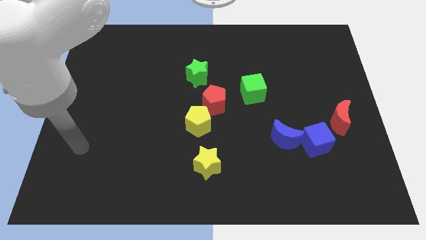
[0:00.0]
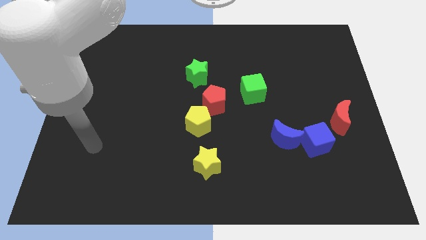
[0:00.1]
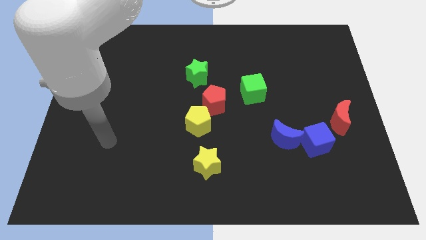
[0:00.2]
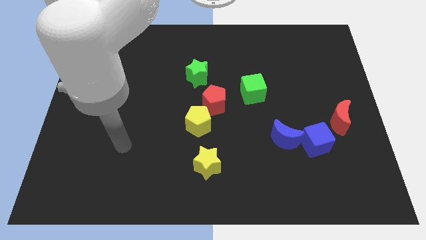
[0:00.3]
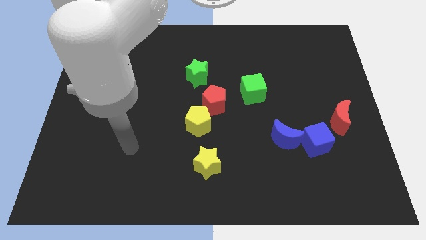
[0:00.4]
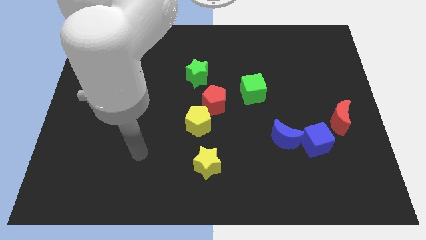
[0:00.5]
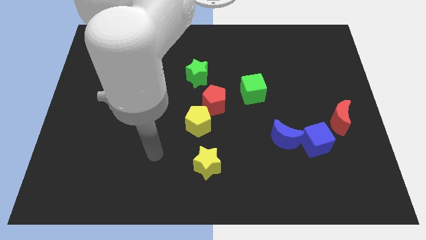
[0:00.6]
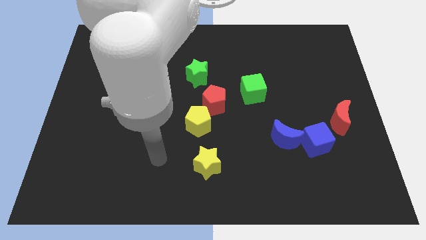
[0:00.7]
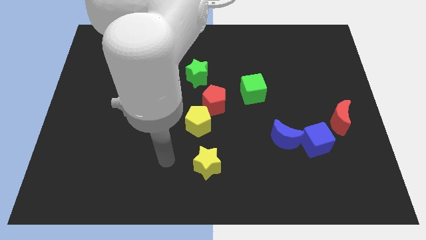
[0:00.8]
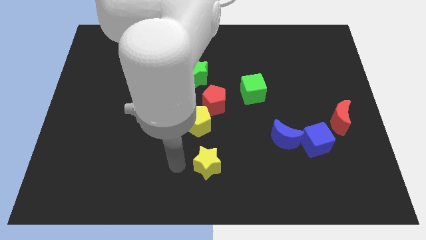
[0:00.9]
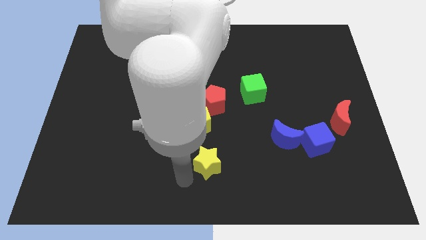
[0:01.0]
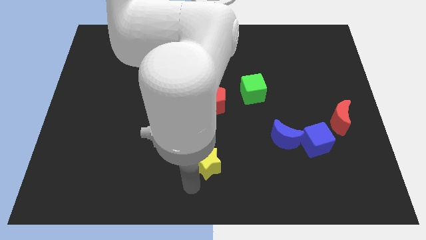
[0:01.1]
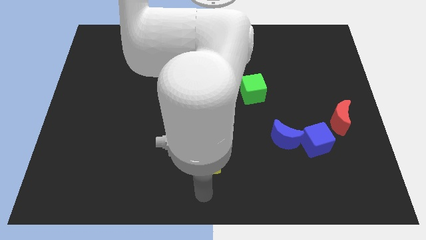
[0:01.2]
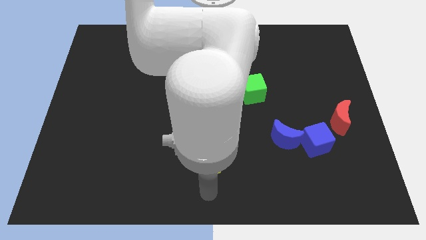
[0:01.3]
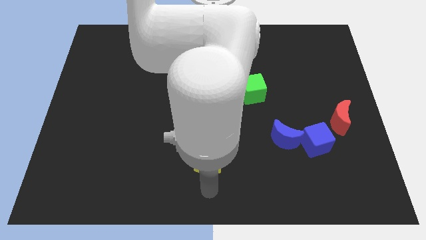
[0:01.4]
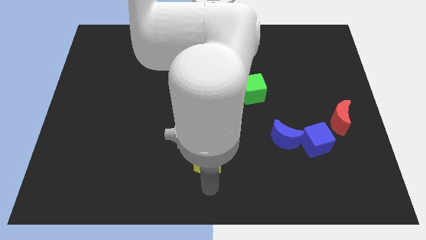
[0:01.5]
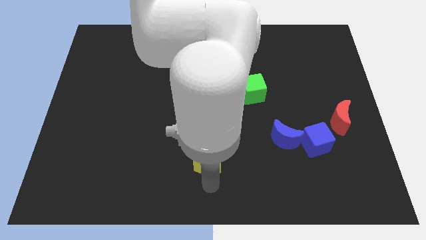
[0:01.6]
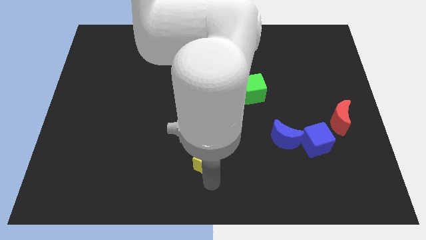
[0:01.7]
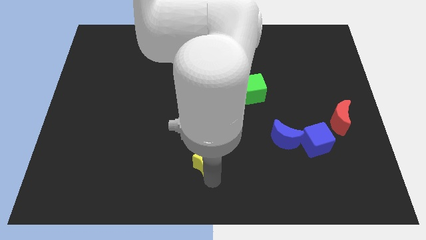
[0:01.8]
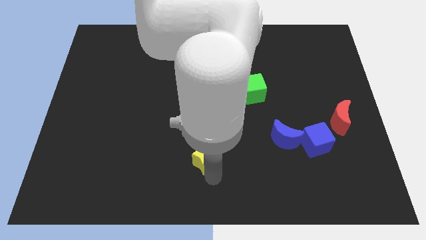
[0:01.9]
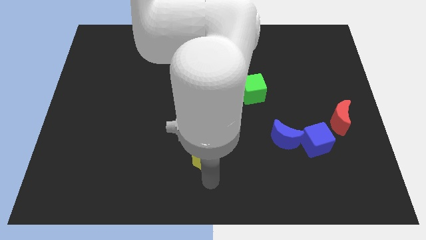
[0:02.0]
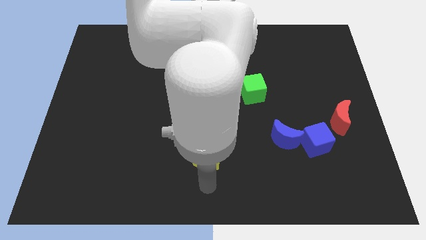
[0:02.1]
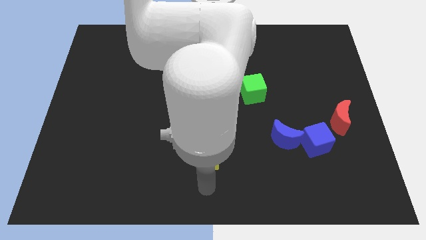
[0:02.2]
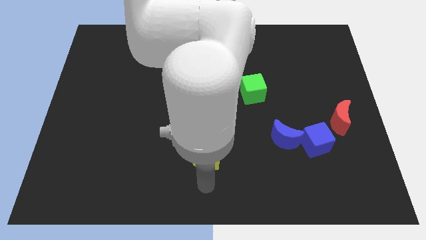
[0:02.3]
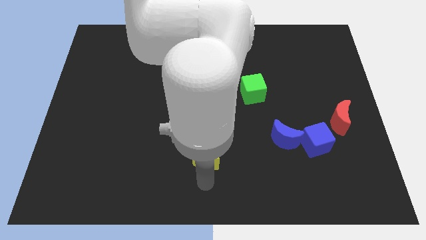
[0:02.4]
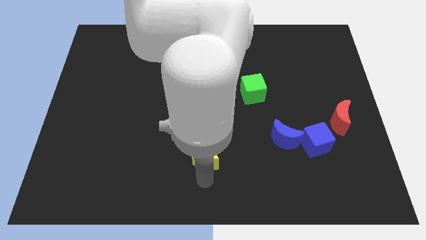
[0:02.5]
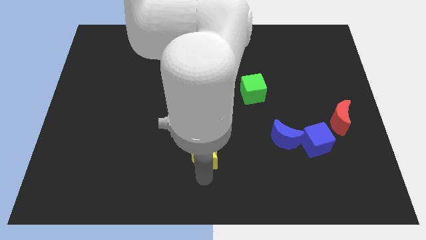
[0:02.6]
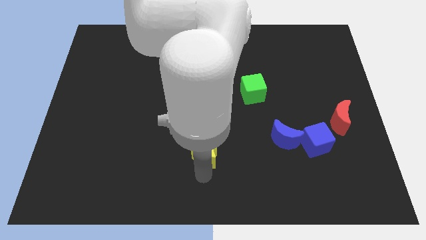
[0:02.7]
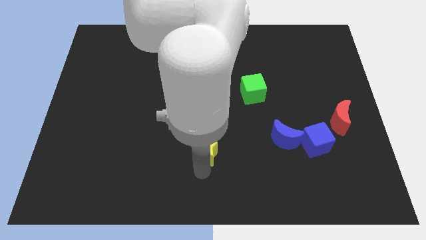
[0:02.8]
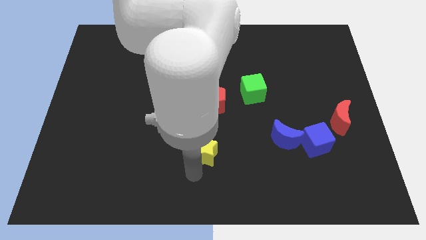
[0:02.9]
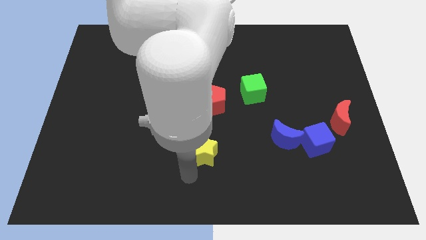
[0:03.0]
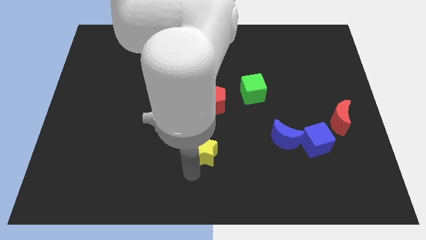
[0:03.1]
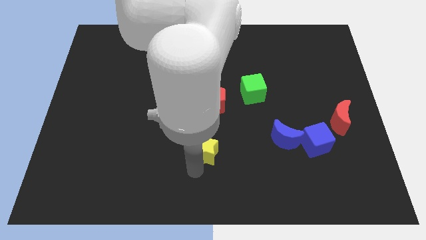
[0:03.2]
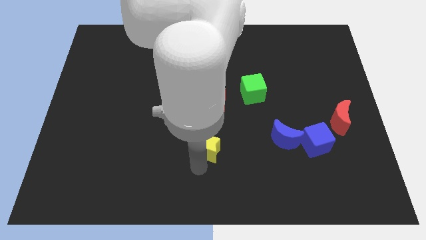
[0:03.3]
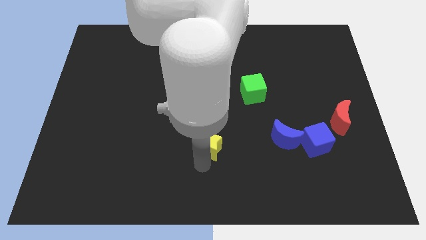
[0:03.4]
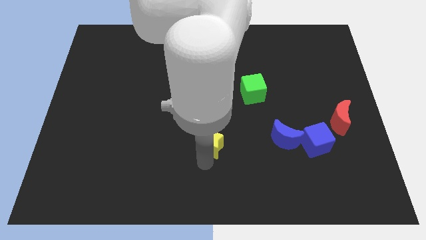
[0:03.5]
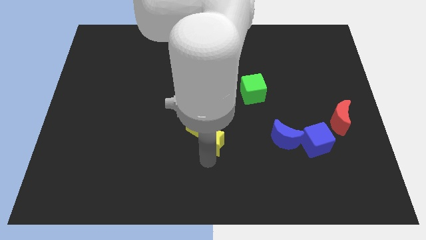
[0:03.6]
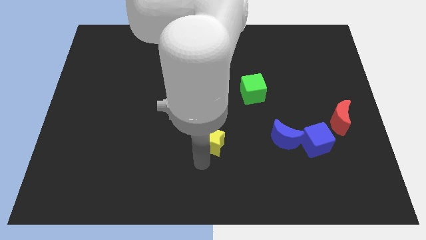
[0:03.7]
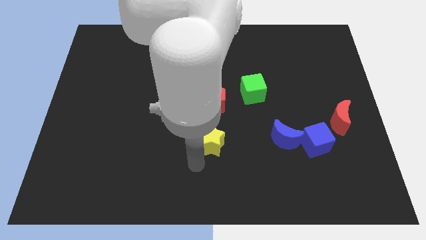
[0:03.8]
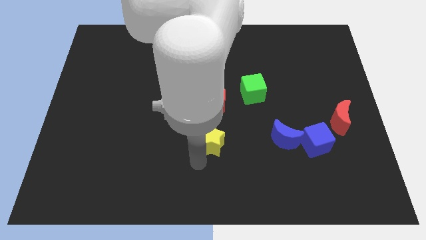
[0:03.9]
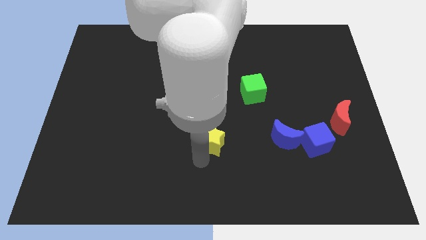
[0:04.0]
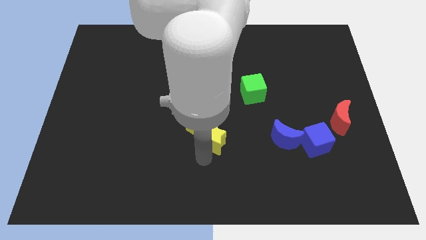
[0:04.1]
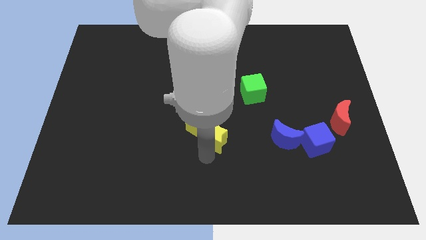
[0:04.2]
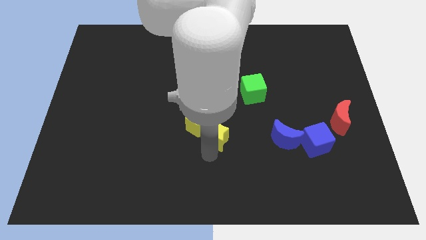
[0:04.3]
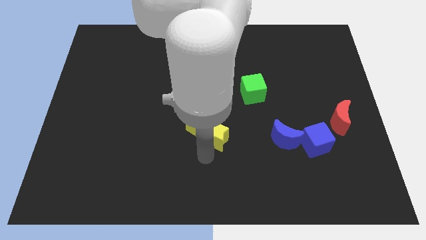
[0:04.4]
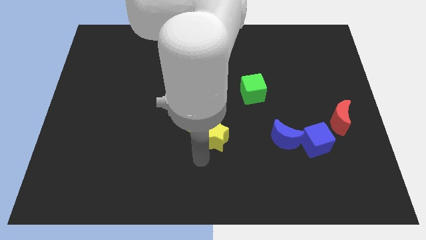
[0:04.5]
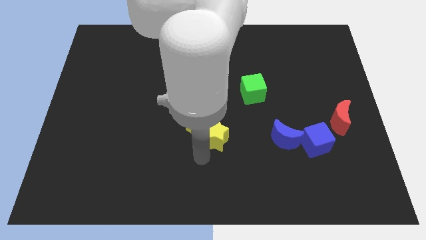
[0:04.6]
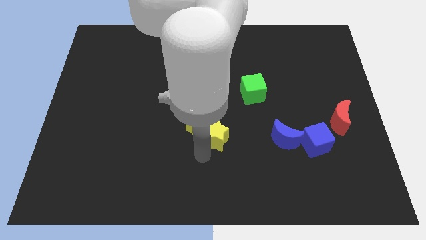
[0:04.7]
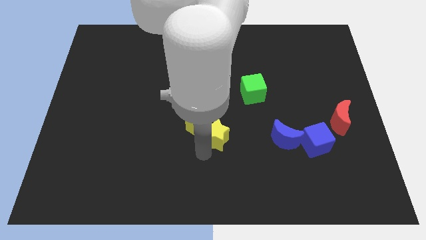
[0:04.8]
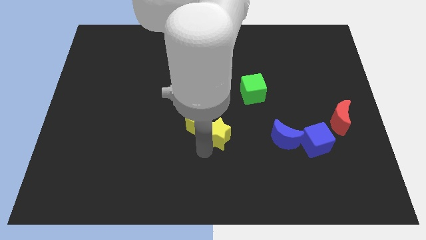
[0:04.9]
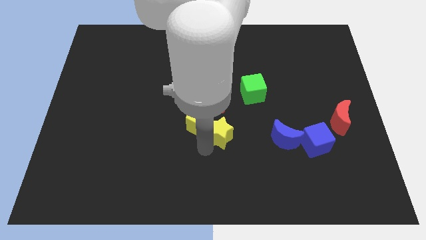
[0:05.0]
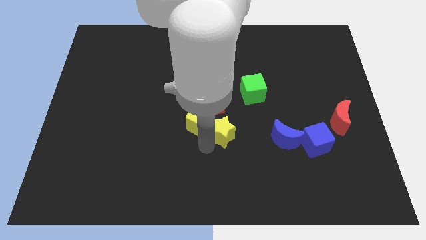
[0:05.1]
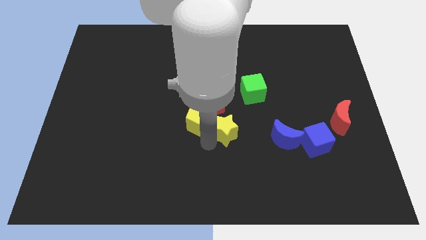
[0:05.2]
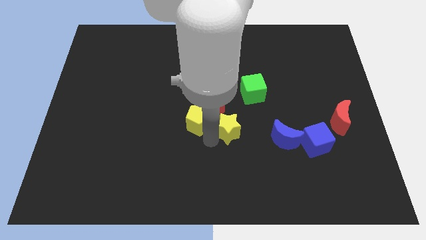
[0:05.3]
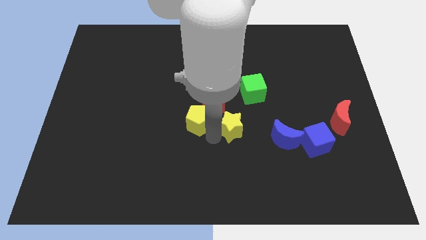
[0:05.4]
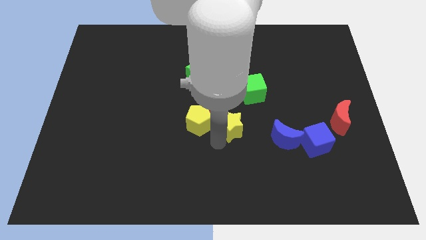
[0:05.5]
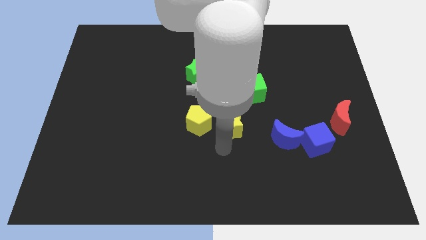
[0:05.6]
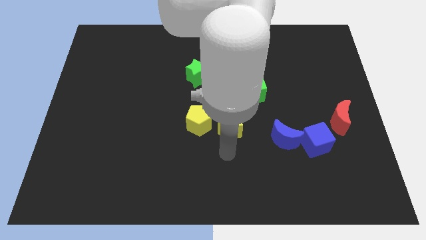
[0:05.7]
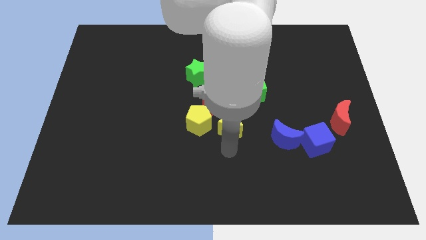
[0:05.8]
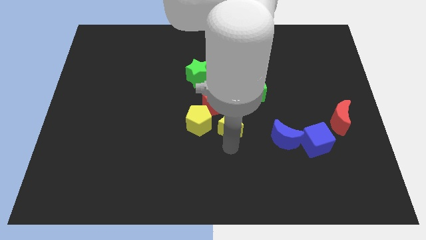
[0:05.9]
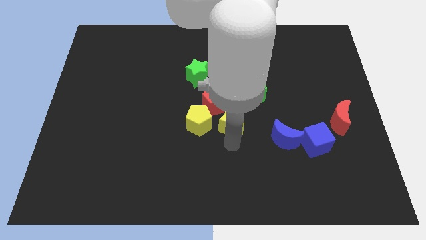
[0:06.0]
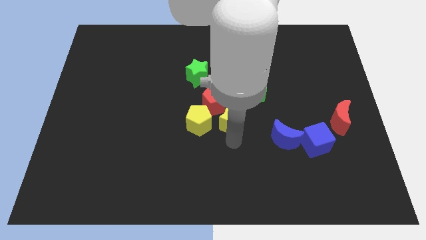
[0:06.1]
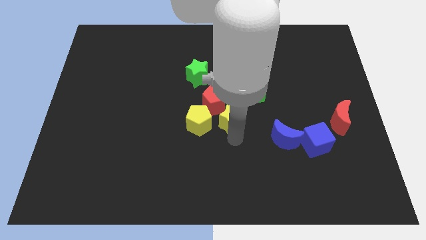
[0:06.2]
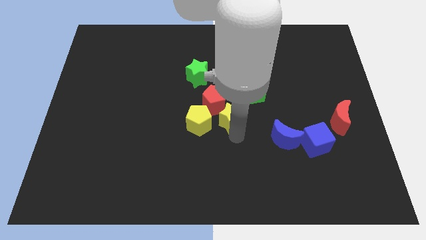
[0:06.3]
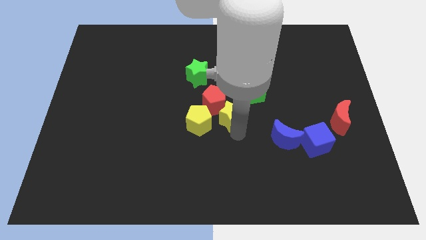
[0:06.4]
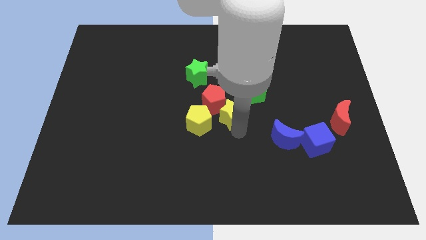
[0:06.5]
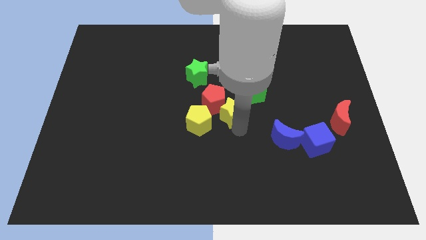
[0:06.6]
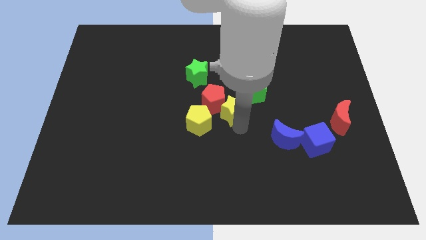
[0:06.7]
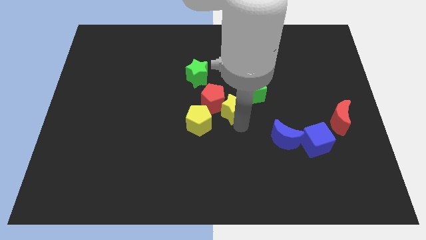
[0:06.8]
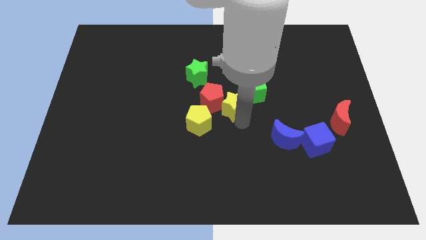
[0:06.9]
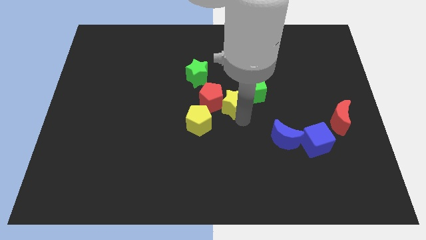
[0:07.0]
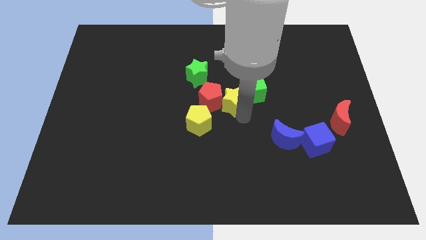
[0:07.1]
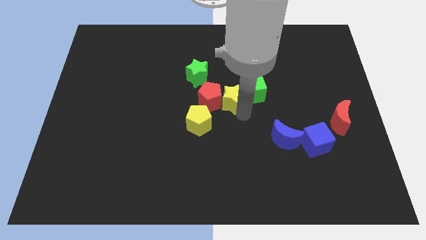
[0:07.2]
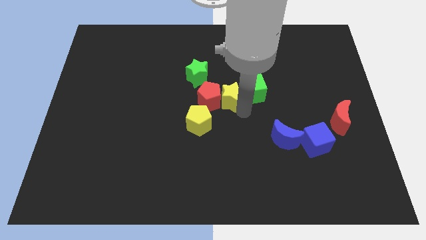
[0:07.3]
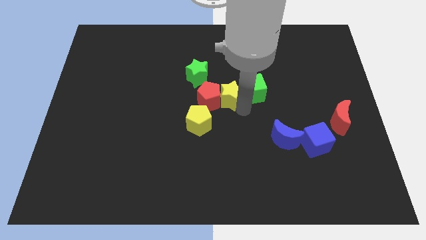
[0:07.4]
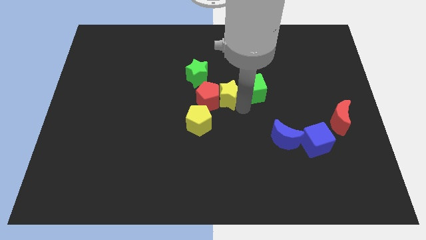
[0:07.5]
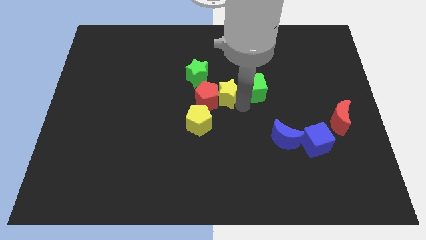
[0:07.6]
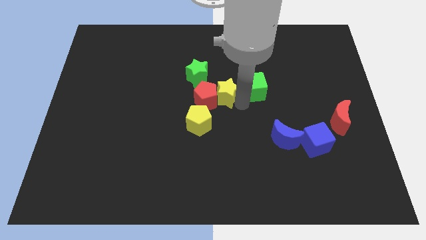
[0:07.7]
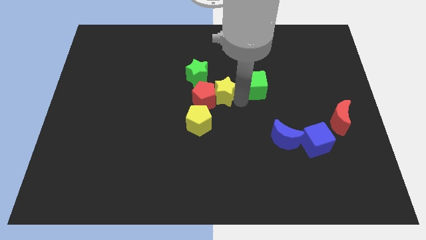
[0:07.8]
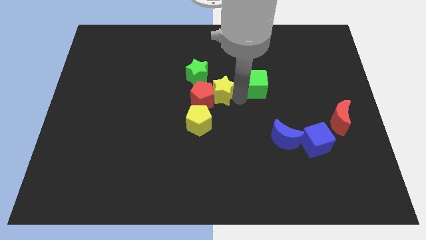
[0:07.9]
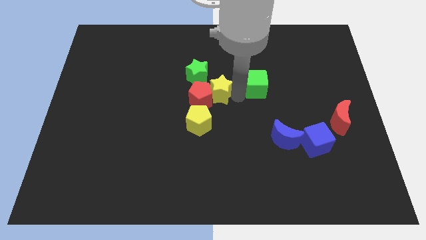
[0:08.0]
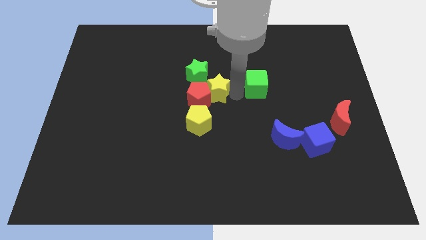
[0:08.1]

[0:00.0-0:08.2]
slide the yellow star upwards
